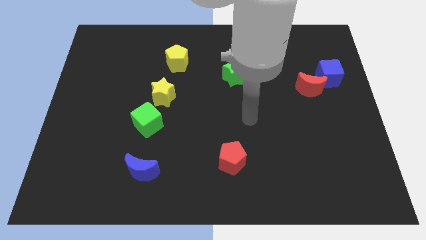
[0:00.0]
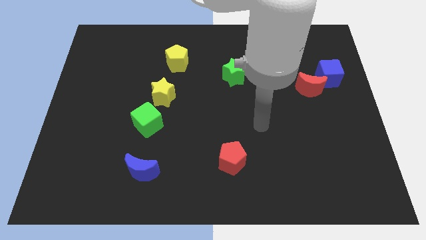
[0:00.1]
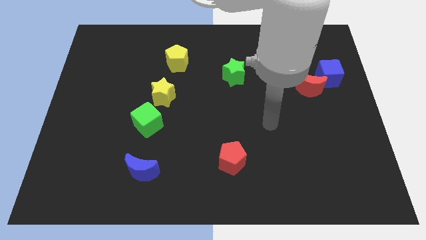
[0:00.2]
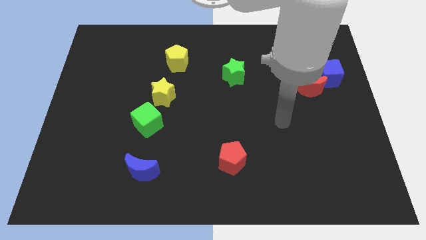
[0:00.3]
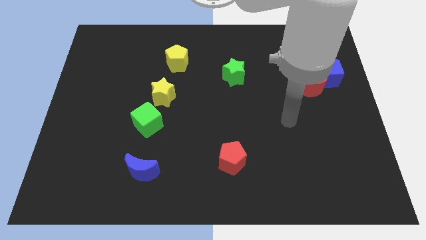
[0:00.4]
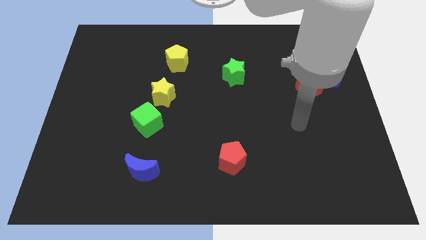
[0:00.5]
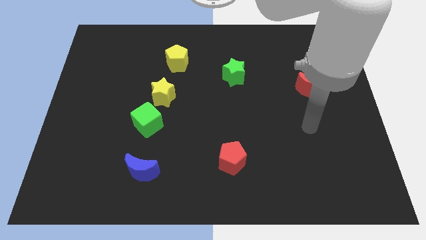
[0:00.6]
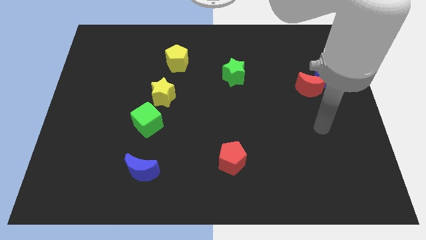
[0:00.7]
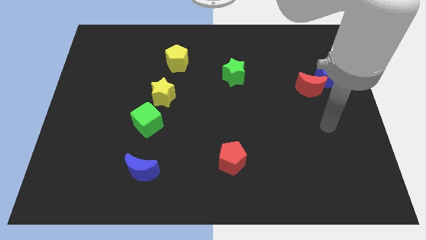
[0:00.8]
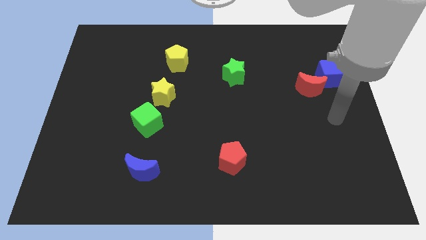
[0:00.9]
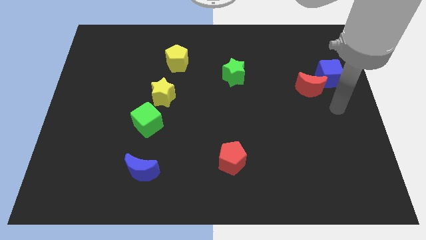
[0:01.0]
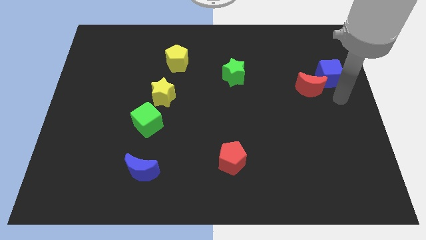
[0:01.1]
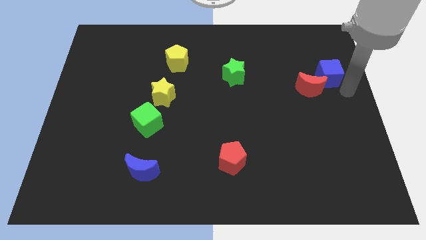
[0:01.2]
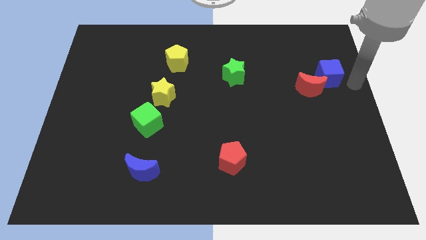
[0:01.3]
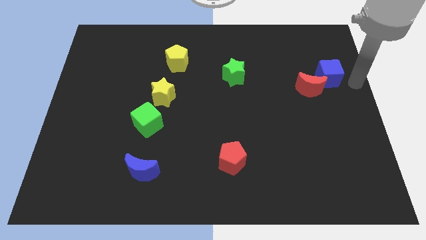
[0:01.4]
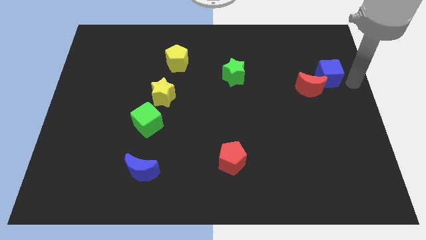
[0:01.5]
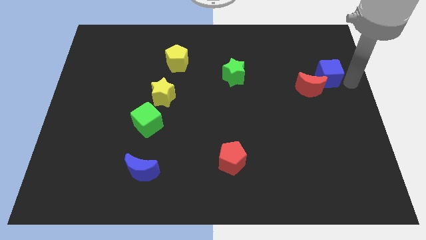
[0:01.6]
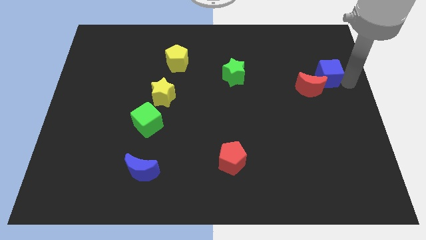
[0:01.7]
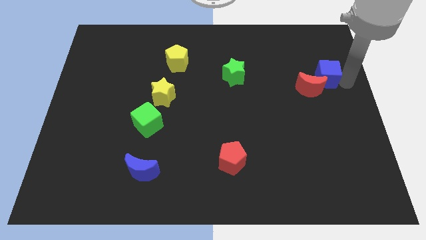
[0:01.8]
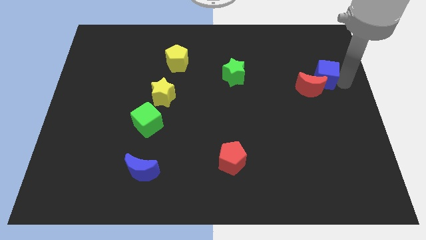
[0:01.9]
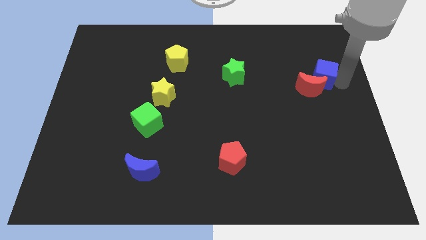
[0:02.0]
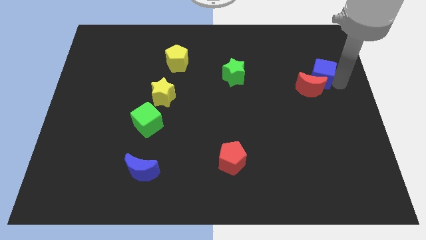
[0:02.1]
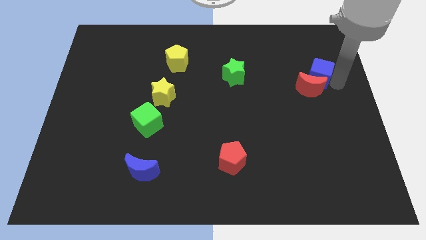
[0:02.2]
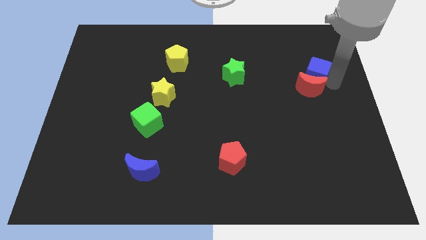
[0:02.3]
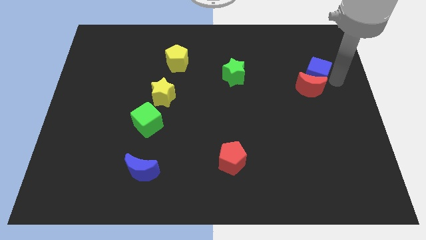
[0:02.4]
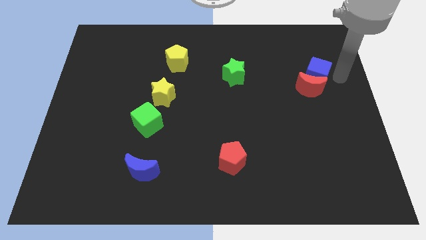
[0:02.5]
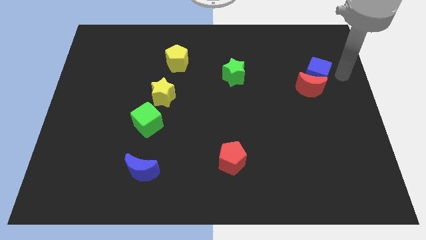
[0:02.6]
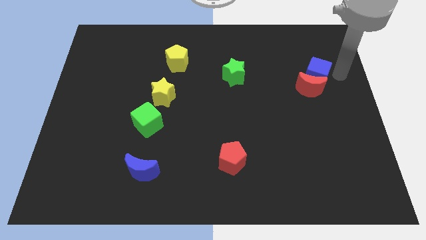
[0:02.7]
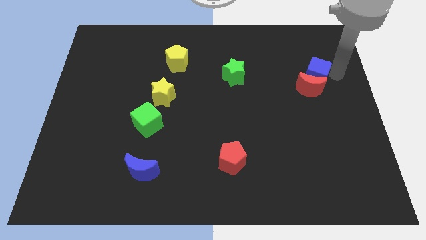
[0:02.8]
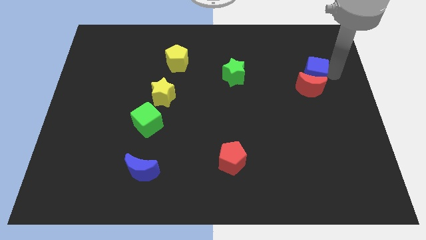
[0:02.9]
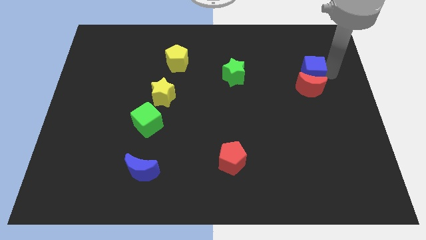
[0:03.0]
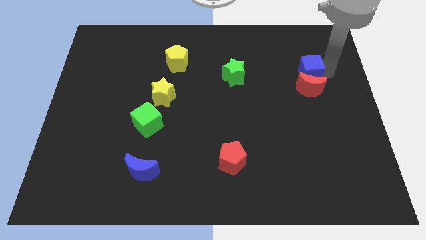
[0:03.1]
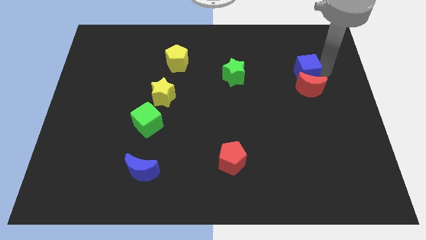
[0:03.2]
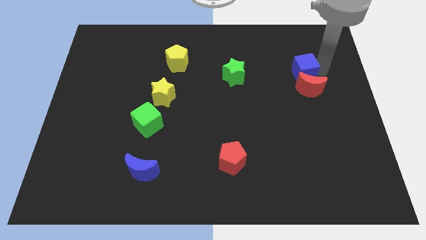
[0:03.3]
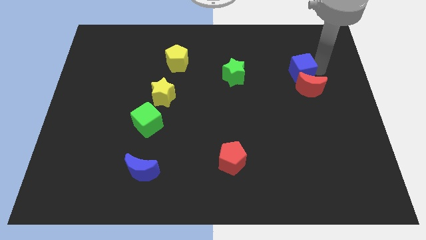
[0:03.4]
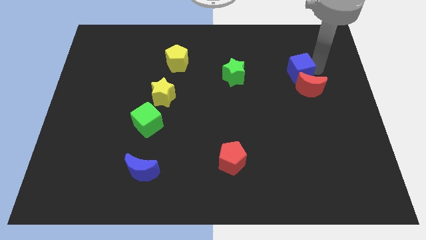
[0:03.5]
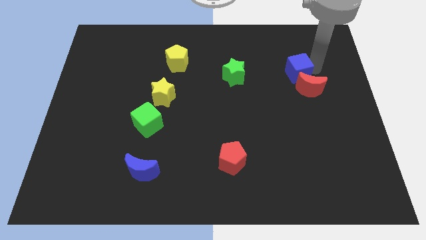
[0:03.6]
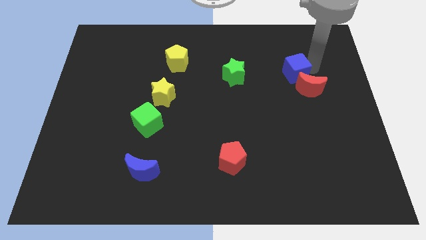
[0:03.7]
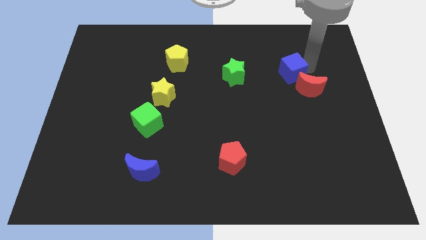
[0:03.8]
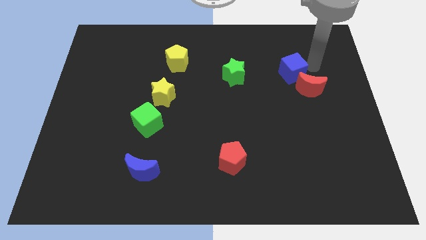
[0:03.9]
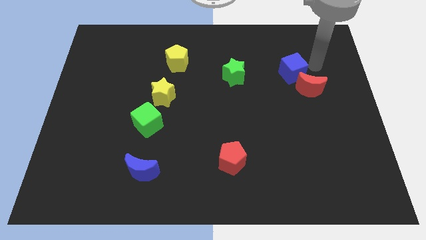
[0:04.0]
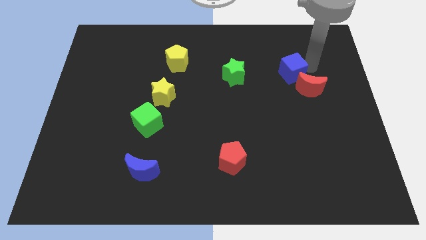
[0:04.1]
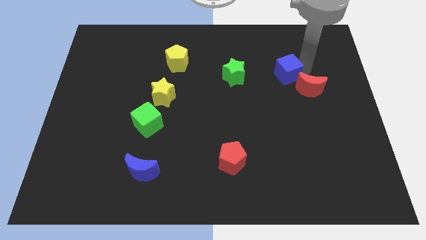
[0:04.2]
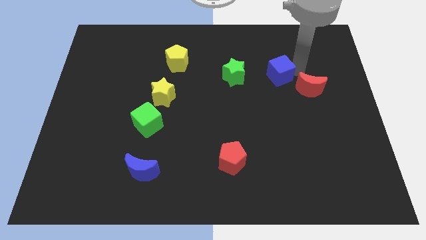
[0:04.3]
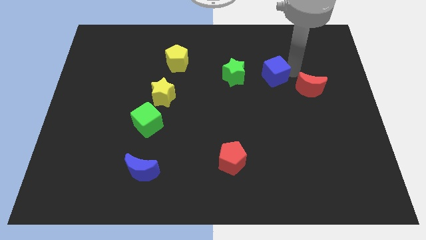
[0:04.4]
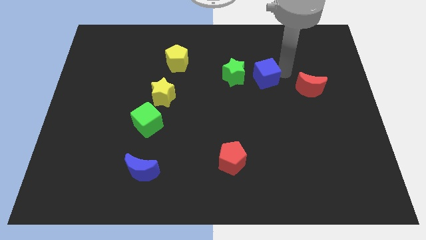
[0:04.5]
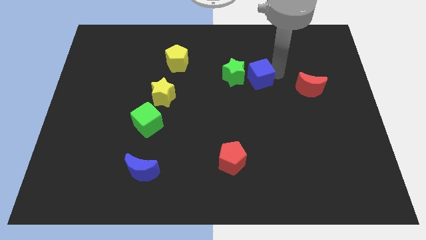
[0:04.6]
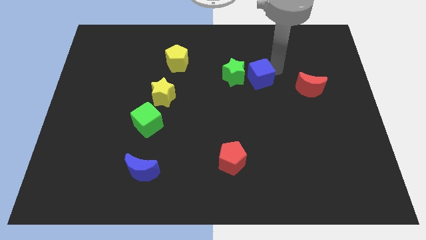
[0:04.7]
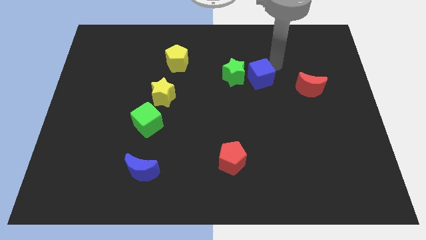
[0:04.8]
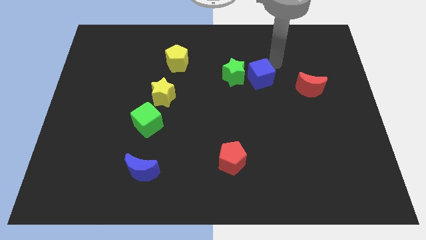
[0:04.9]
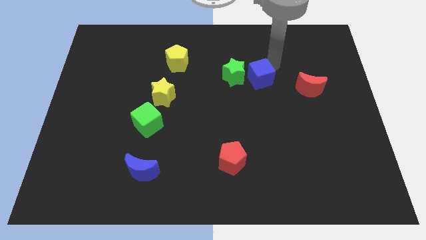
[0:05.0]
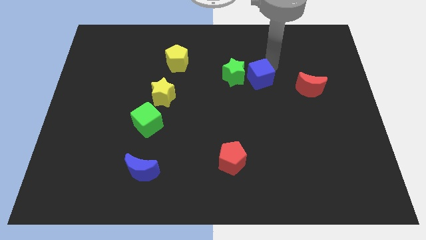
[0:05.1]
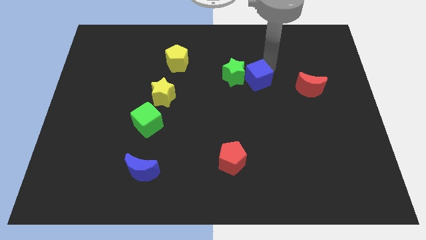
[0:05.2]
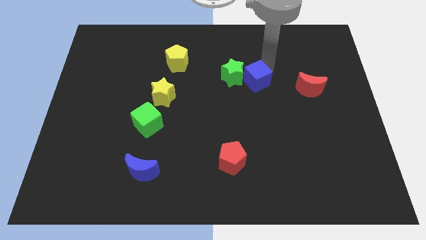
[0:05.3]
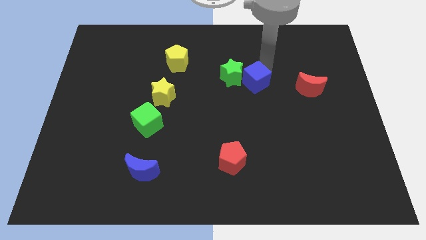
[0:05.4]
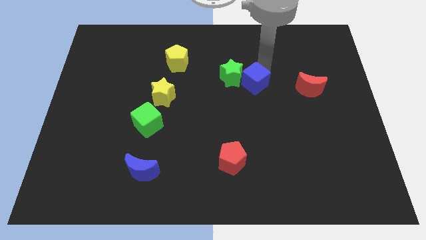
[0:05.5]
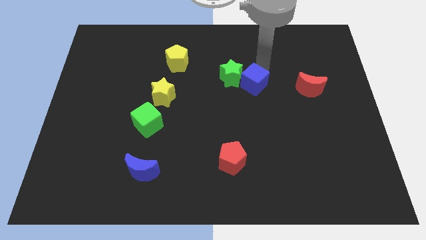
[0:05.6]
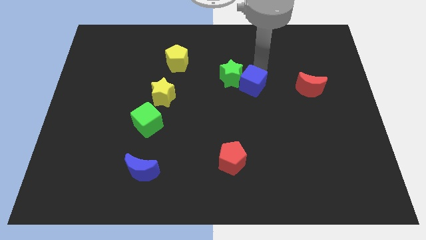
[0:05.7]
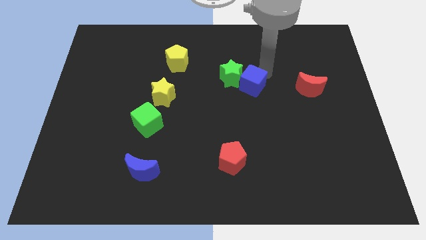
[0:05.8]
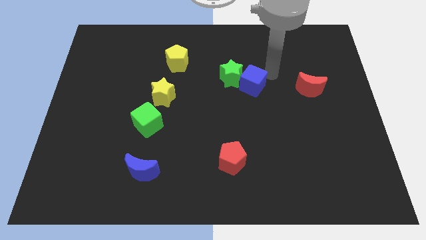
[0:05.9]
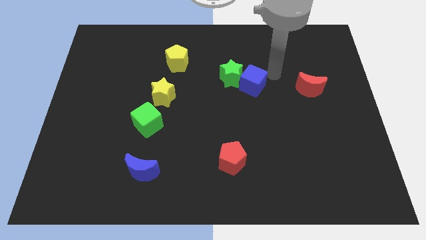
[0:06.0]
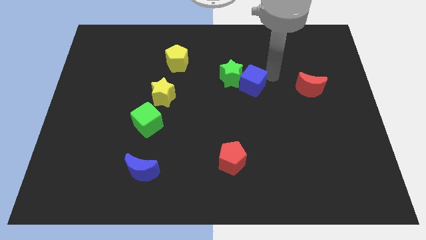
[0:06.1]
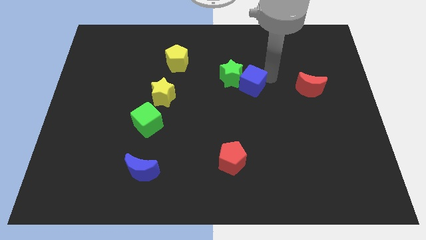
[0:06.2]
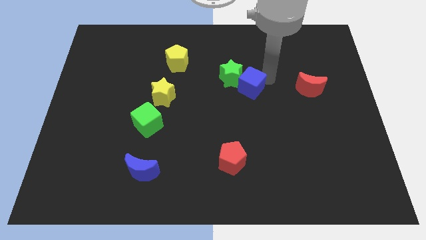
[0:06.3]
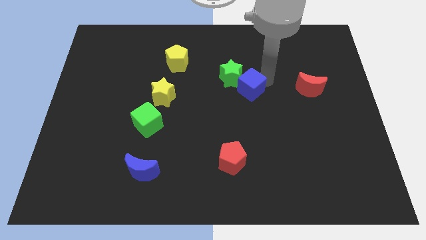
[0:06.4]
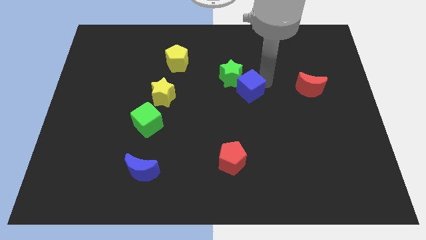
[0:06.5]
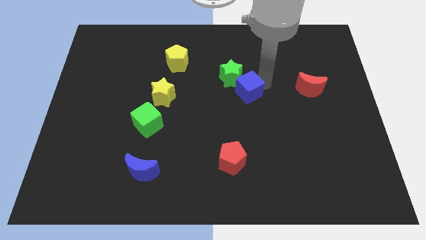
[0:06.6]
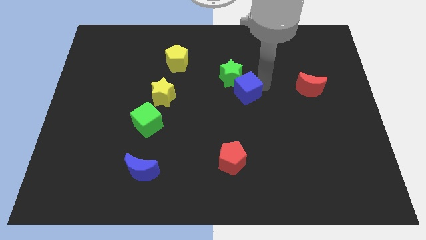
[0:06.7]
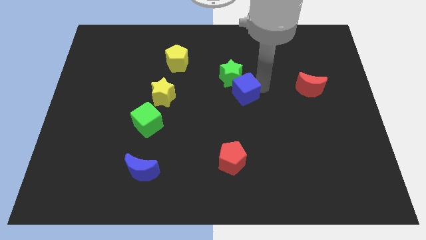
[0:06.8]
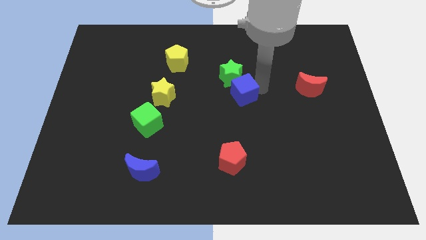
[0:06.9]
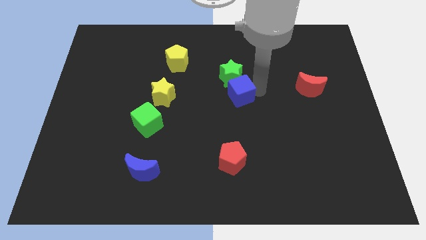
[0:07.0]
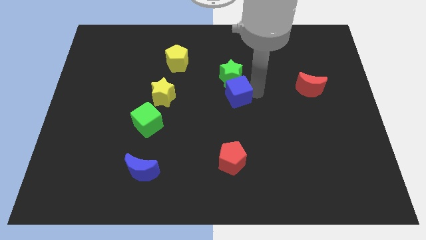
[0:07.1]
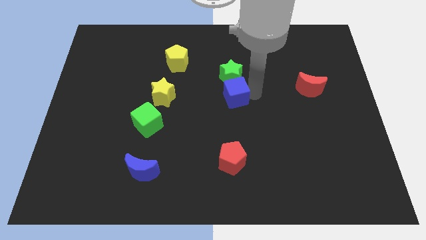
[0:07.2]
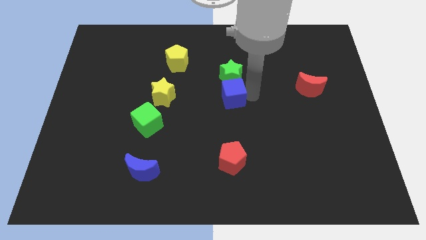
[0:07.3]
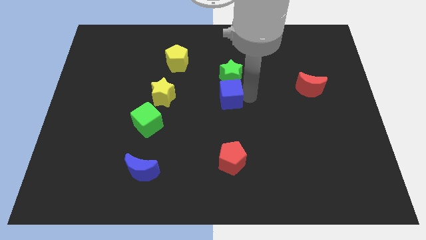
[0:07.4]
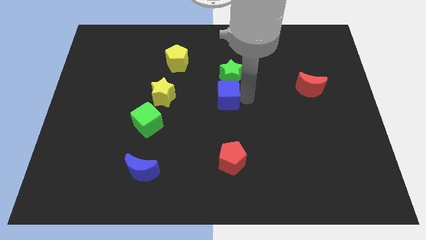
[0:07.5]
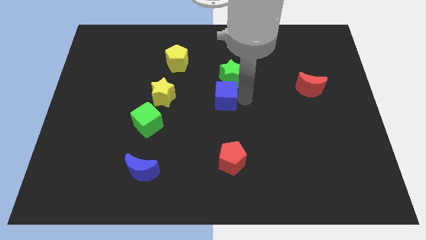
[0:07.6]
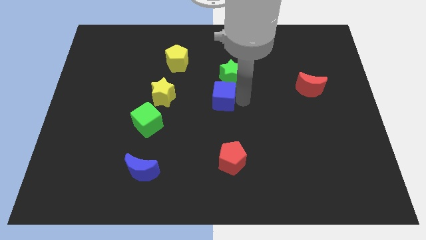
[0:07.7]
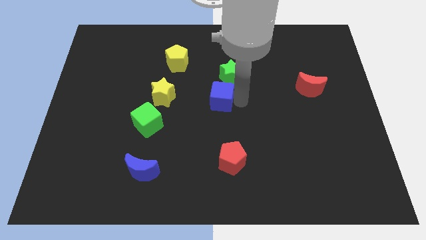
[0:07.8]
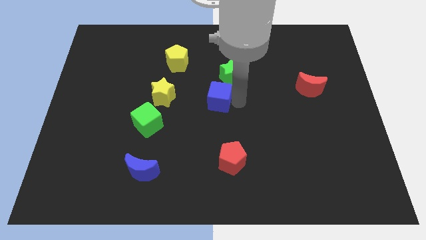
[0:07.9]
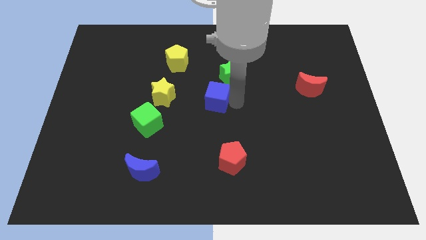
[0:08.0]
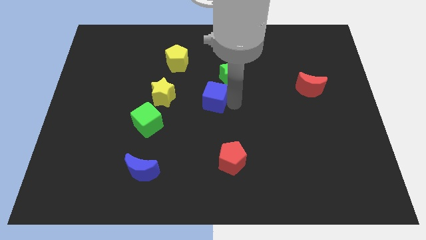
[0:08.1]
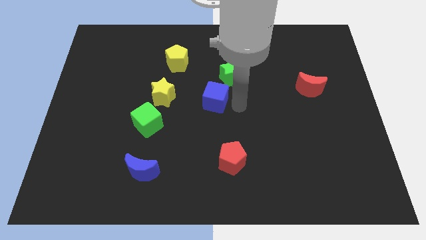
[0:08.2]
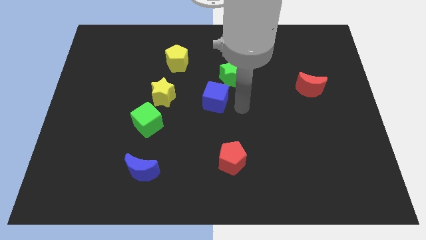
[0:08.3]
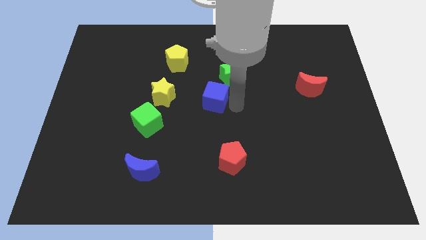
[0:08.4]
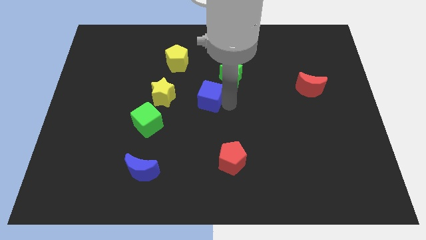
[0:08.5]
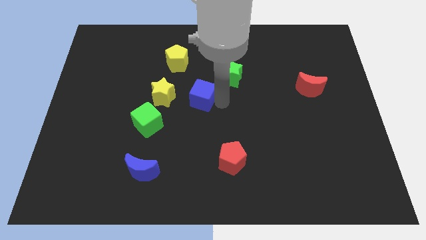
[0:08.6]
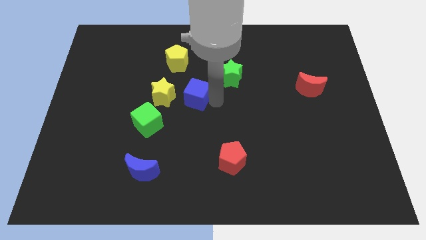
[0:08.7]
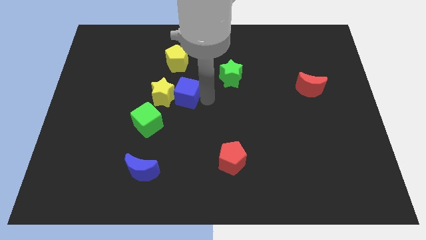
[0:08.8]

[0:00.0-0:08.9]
push the blue cube towards the yellow star
